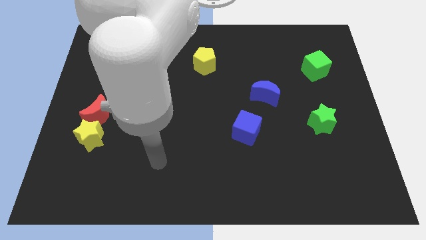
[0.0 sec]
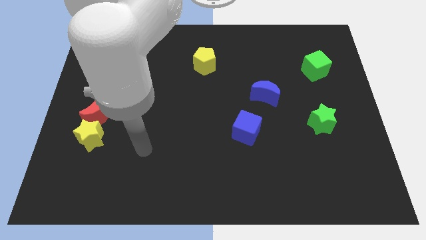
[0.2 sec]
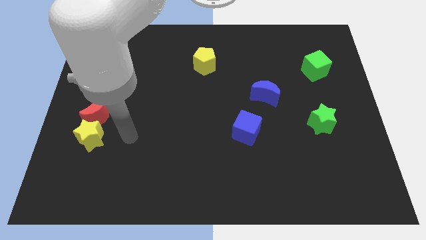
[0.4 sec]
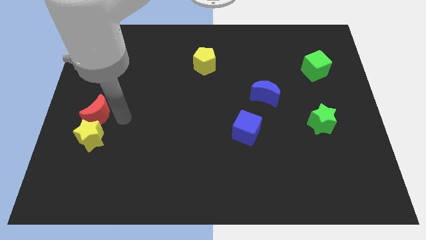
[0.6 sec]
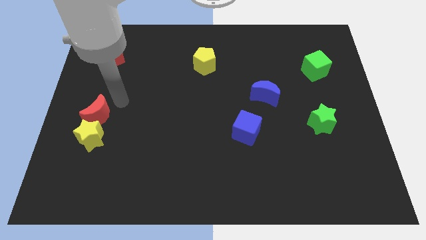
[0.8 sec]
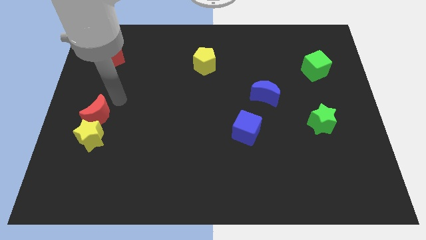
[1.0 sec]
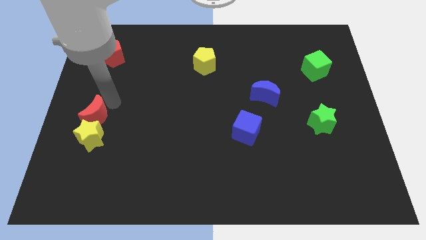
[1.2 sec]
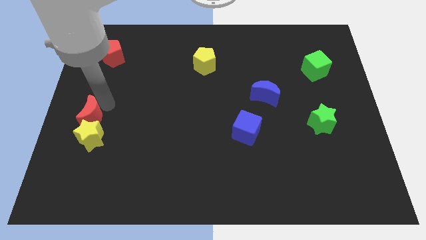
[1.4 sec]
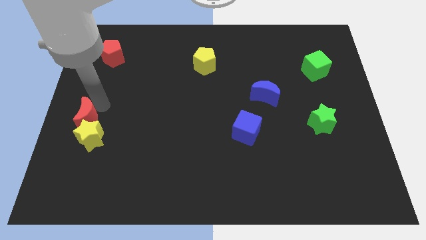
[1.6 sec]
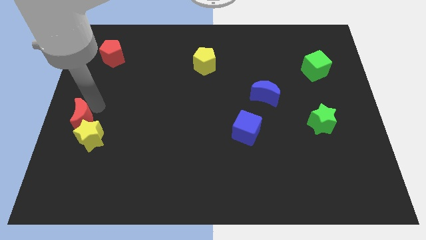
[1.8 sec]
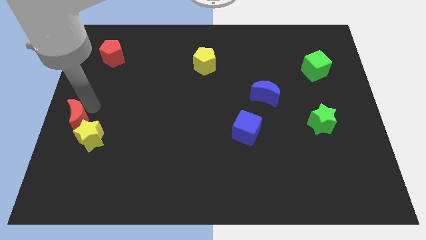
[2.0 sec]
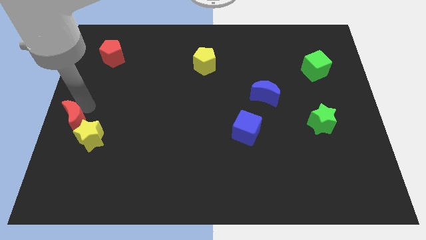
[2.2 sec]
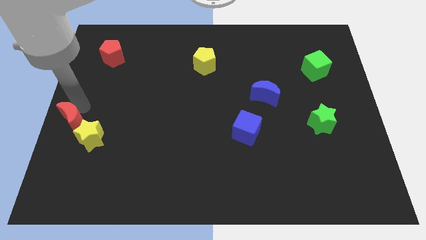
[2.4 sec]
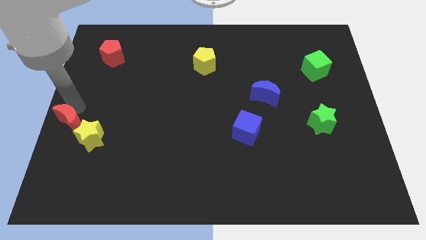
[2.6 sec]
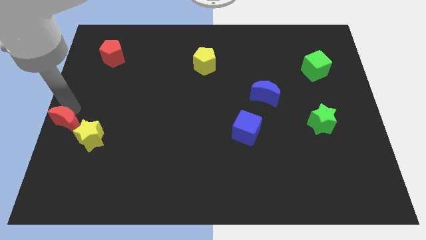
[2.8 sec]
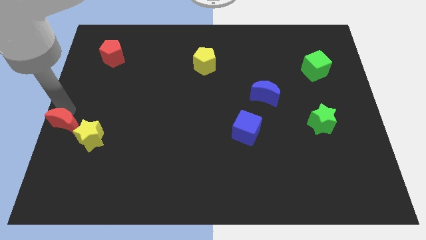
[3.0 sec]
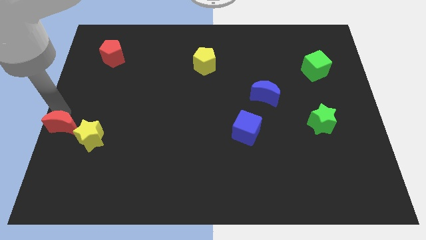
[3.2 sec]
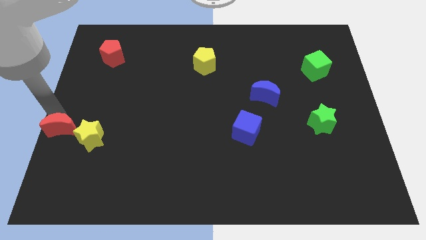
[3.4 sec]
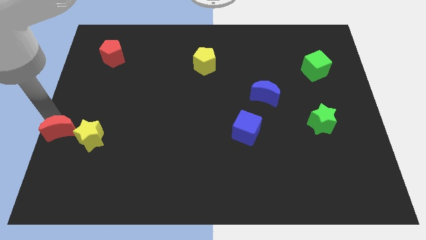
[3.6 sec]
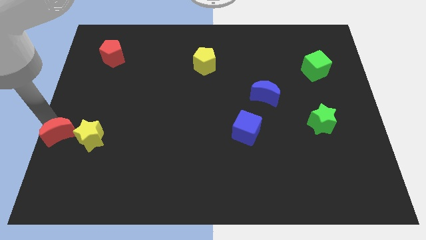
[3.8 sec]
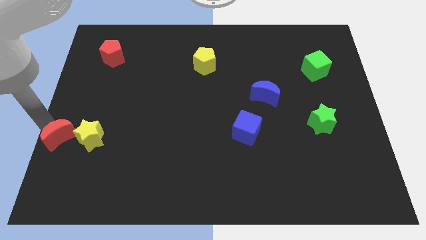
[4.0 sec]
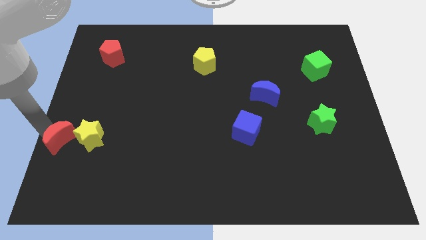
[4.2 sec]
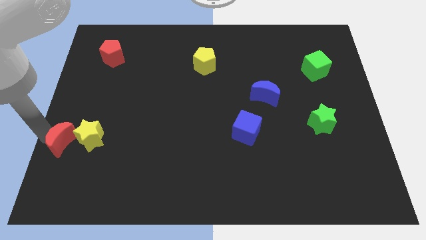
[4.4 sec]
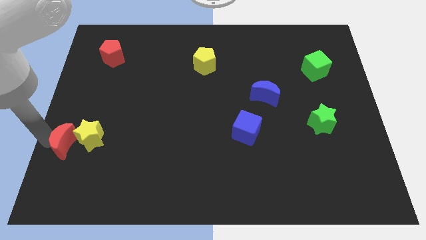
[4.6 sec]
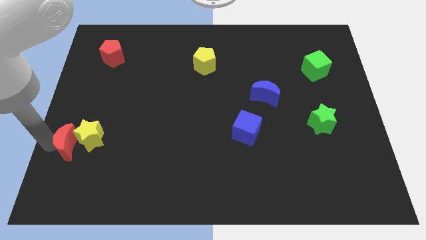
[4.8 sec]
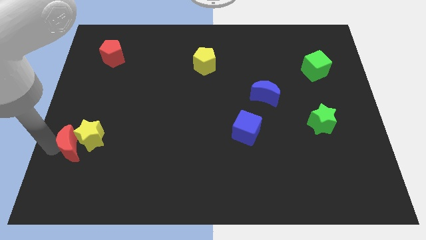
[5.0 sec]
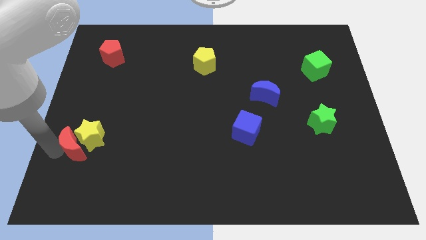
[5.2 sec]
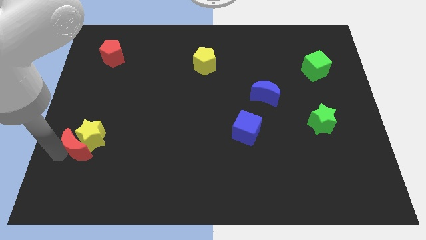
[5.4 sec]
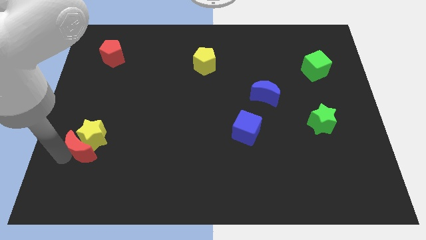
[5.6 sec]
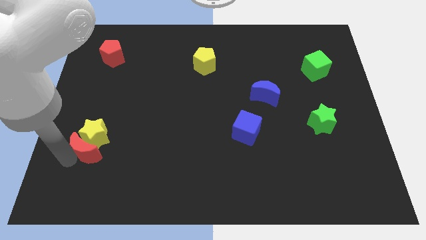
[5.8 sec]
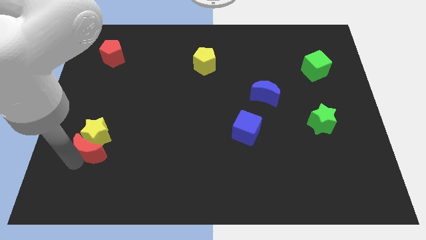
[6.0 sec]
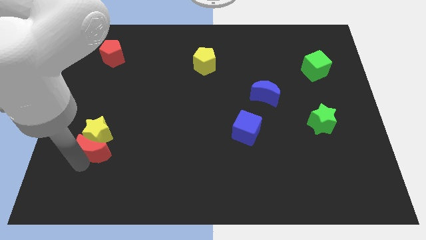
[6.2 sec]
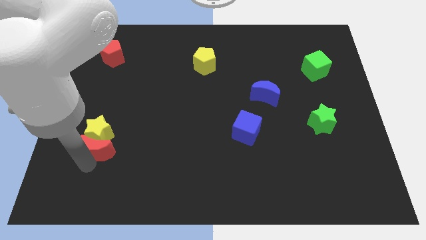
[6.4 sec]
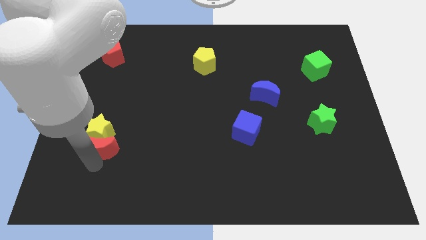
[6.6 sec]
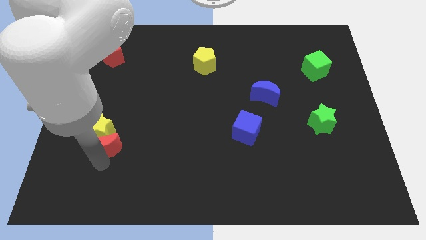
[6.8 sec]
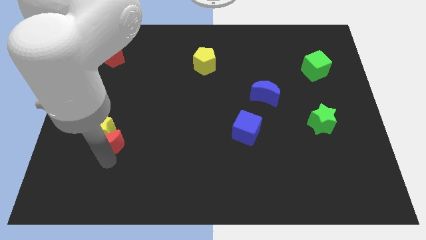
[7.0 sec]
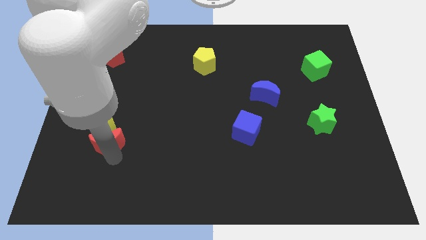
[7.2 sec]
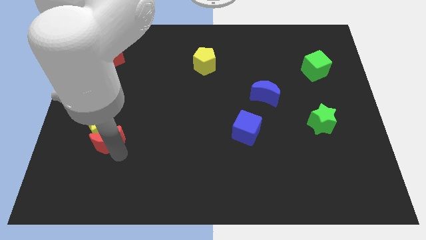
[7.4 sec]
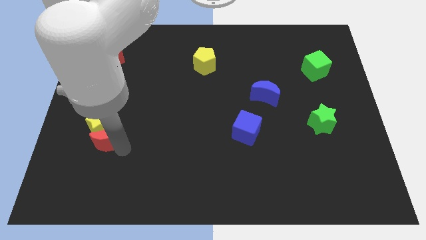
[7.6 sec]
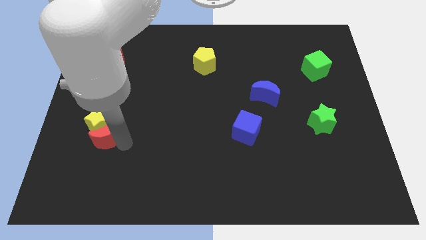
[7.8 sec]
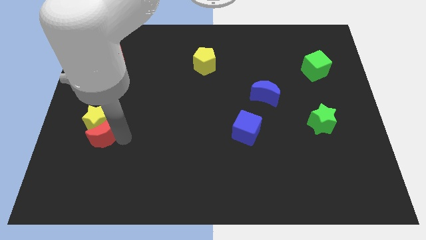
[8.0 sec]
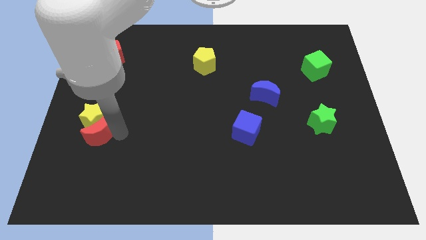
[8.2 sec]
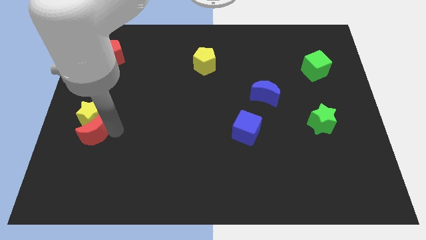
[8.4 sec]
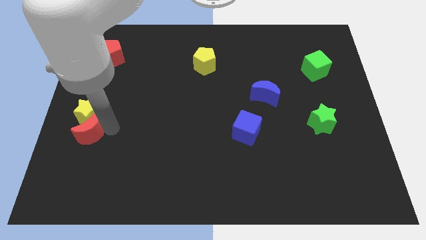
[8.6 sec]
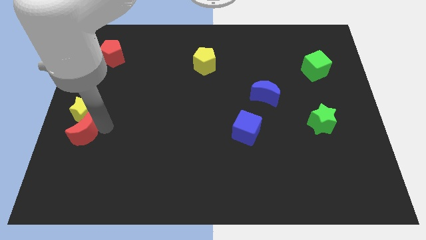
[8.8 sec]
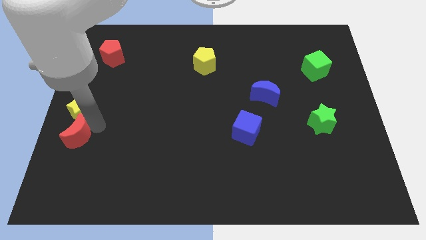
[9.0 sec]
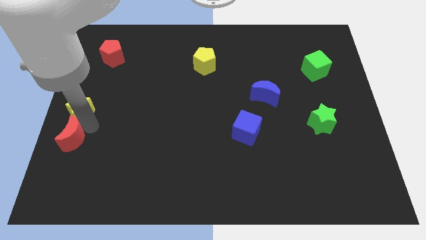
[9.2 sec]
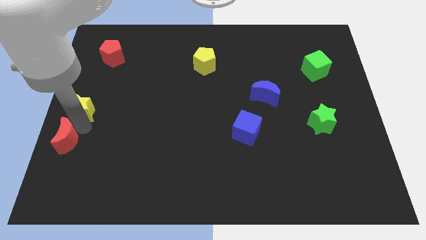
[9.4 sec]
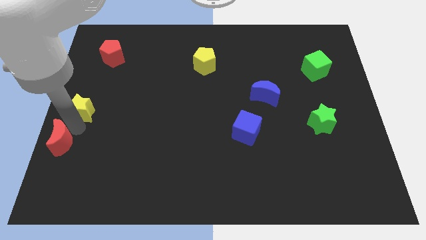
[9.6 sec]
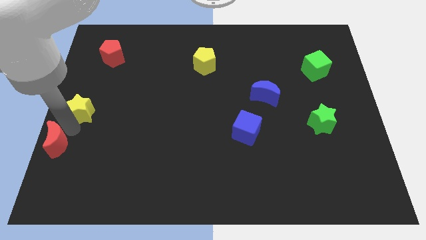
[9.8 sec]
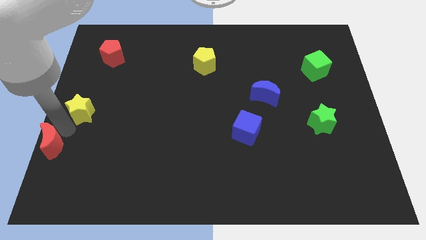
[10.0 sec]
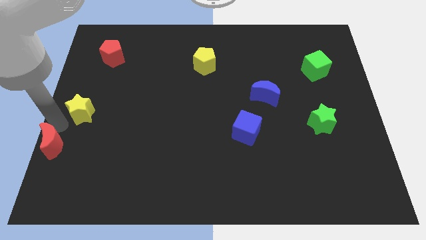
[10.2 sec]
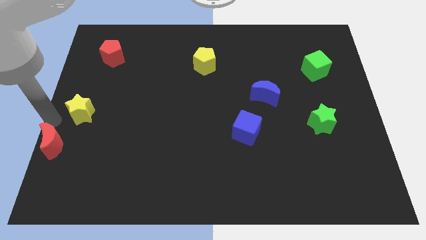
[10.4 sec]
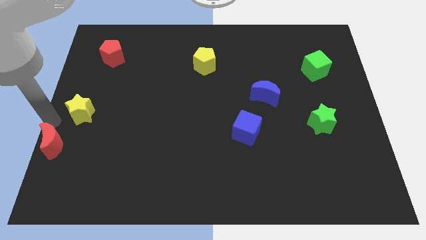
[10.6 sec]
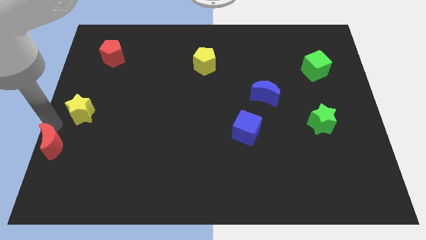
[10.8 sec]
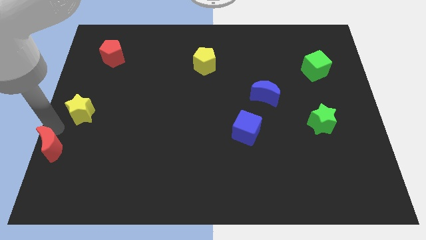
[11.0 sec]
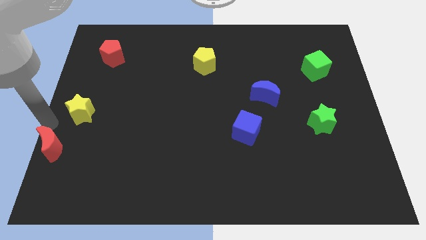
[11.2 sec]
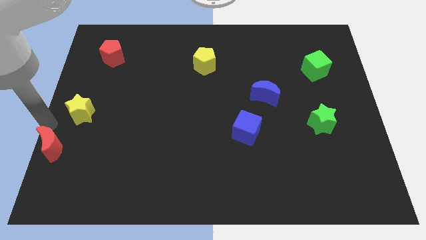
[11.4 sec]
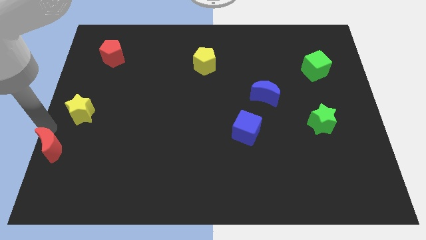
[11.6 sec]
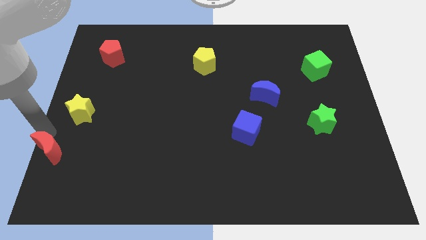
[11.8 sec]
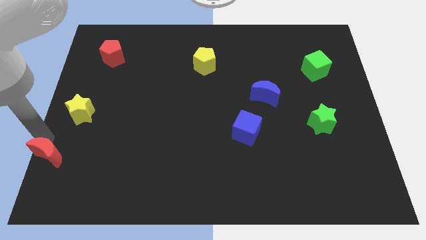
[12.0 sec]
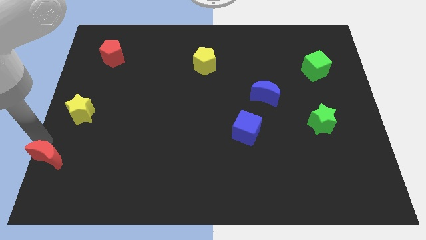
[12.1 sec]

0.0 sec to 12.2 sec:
put the red moon to the bottom left corner

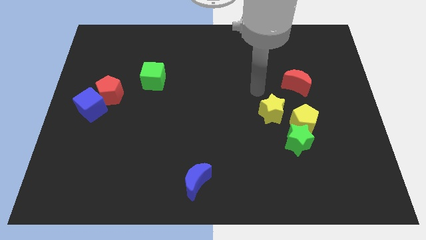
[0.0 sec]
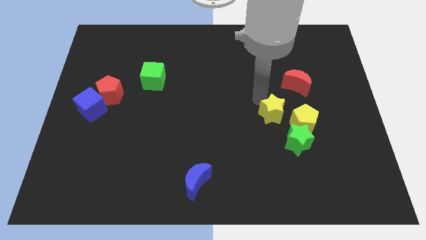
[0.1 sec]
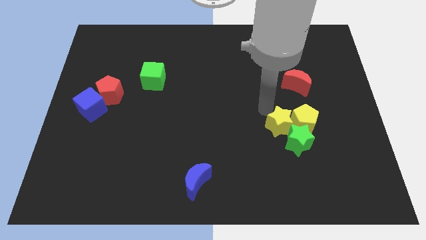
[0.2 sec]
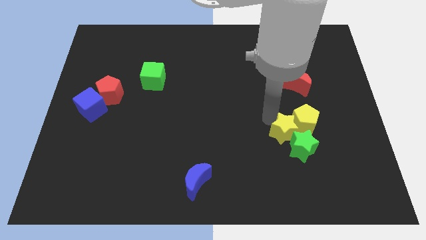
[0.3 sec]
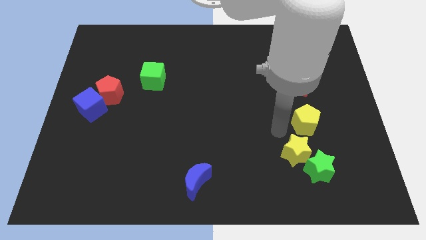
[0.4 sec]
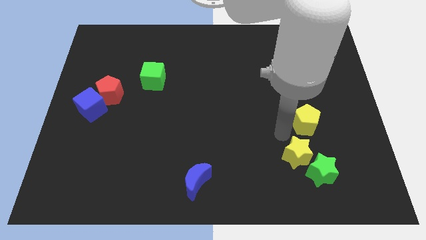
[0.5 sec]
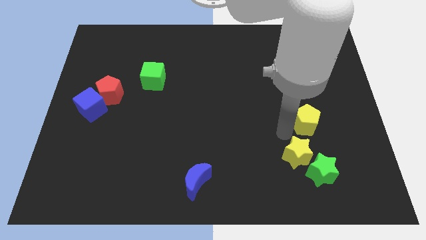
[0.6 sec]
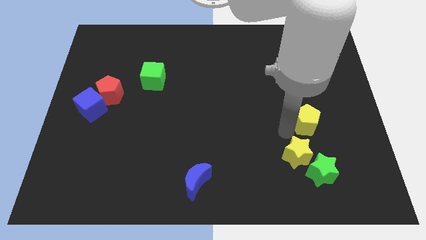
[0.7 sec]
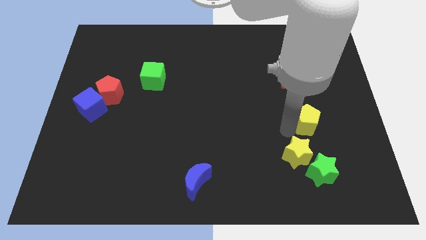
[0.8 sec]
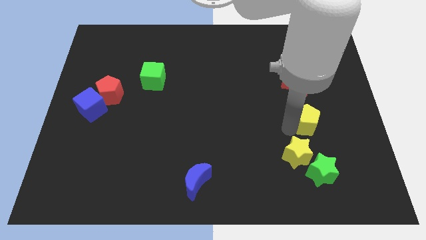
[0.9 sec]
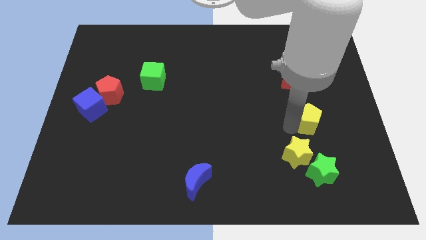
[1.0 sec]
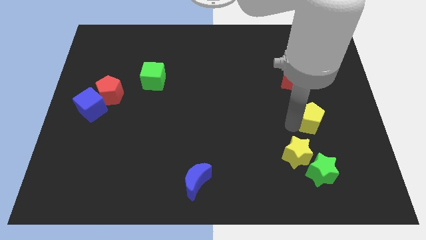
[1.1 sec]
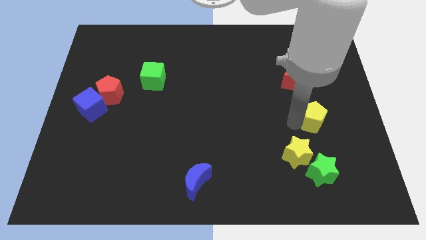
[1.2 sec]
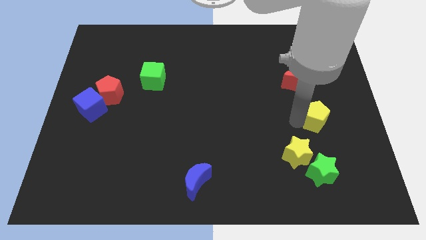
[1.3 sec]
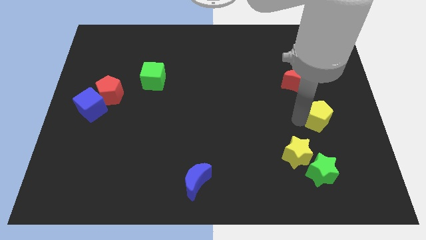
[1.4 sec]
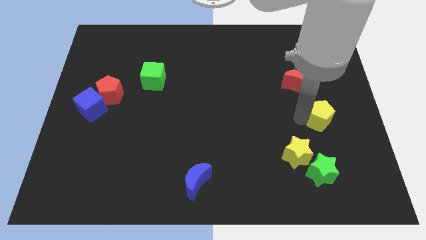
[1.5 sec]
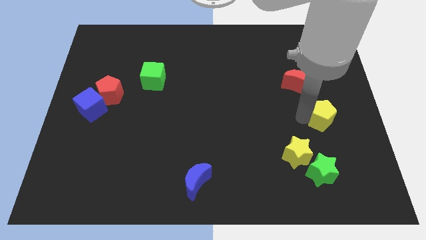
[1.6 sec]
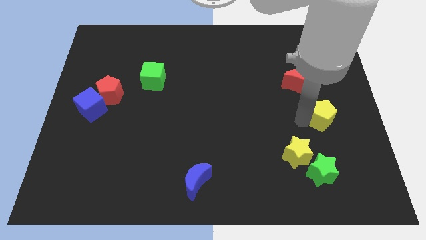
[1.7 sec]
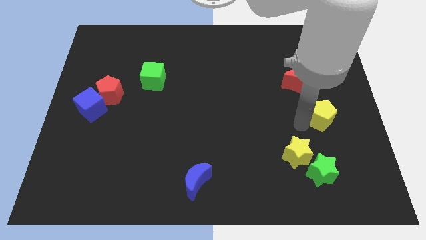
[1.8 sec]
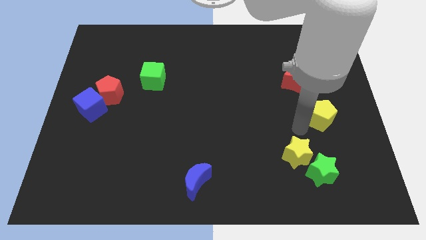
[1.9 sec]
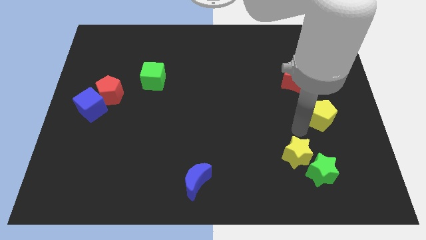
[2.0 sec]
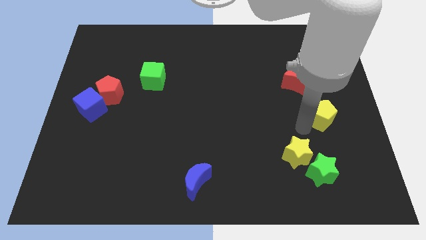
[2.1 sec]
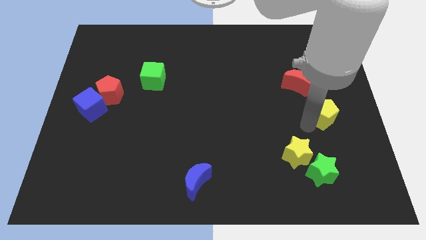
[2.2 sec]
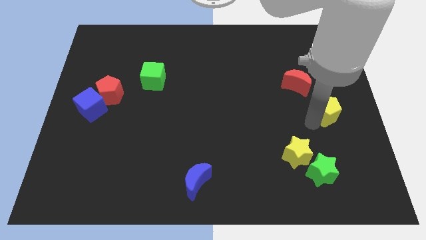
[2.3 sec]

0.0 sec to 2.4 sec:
put the yellow pentagon to the right side

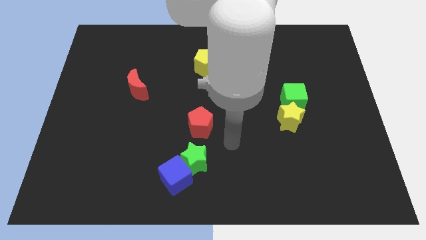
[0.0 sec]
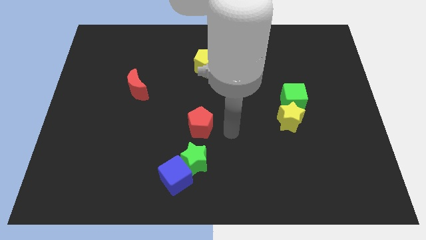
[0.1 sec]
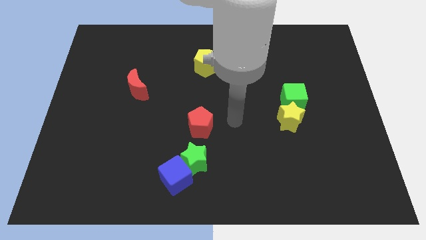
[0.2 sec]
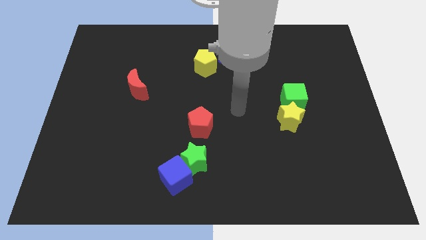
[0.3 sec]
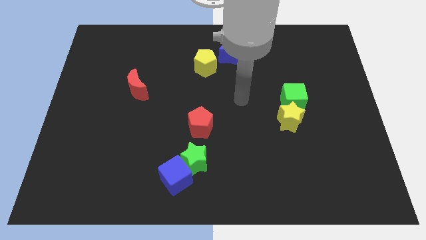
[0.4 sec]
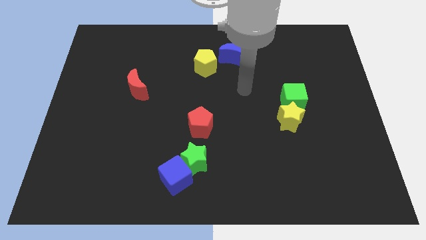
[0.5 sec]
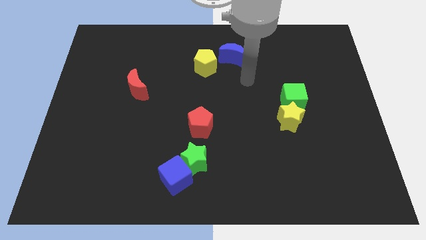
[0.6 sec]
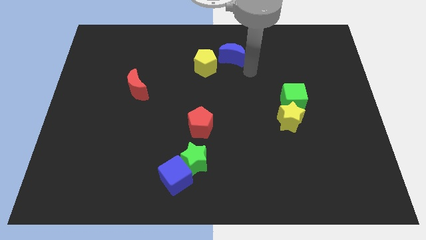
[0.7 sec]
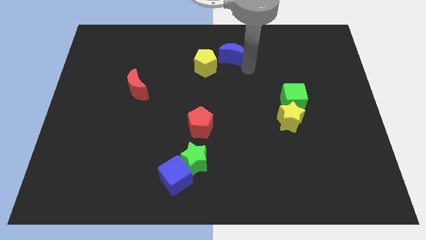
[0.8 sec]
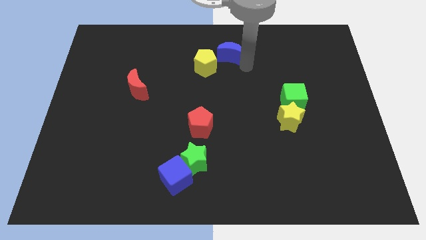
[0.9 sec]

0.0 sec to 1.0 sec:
put the blue moon to the towards your base
